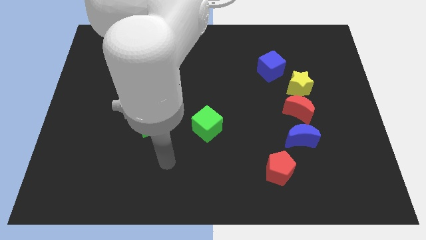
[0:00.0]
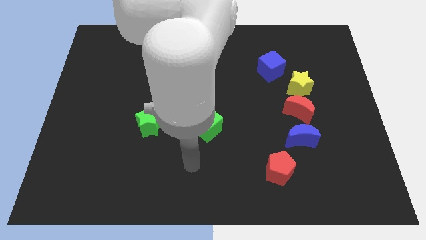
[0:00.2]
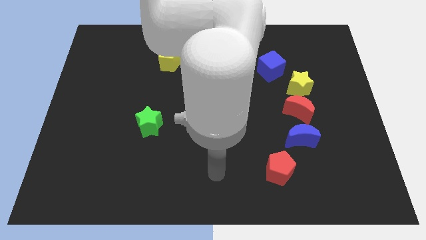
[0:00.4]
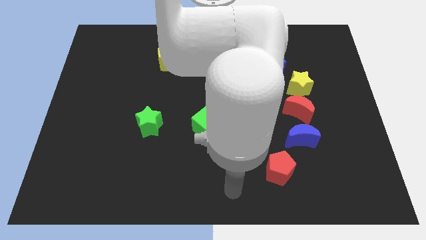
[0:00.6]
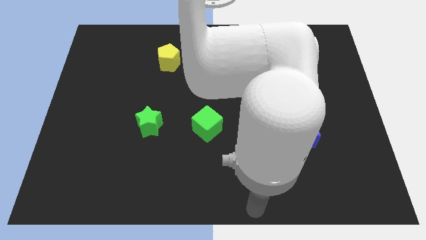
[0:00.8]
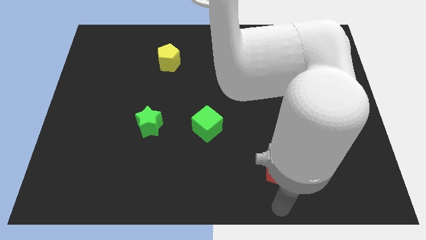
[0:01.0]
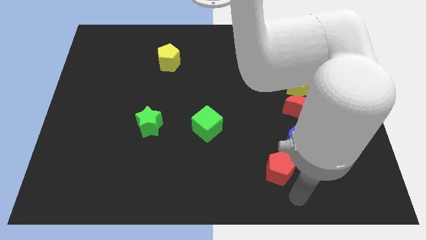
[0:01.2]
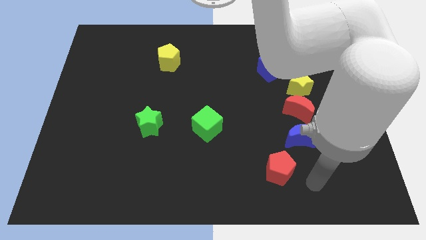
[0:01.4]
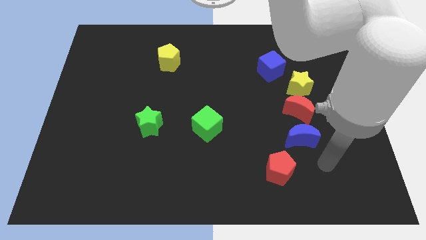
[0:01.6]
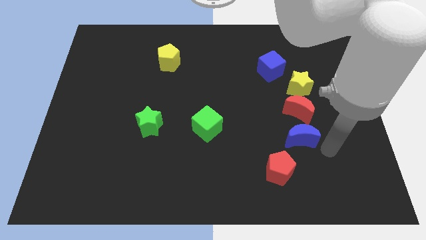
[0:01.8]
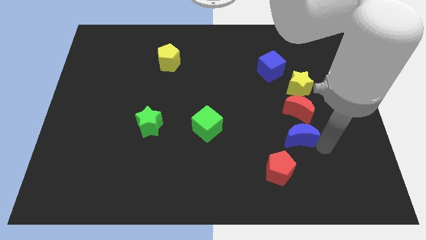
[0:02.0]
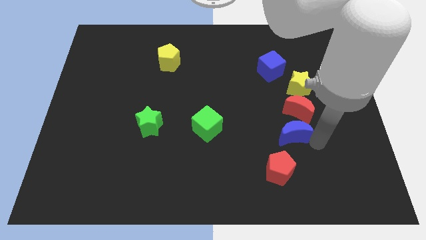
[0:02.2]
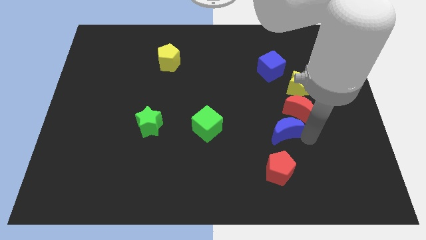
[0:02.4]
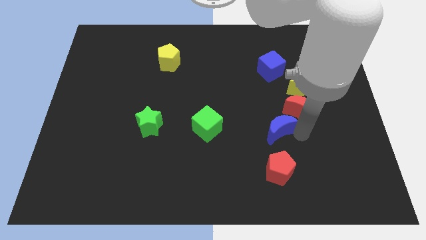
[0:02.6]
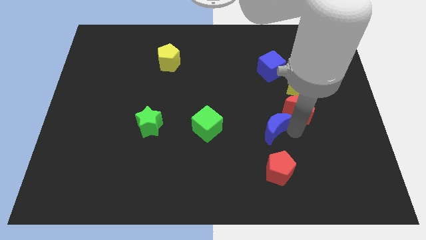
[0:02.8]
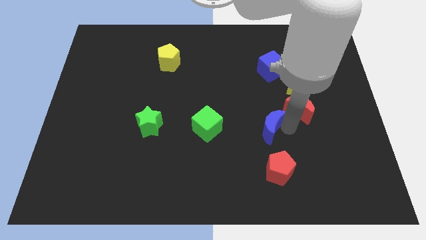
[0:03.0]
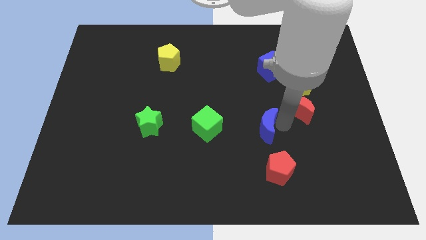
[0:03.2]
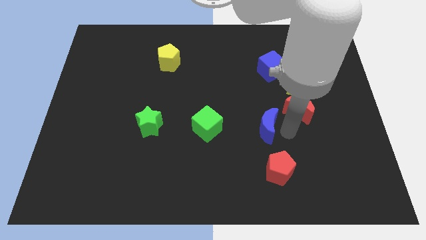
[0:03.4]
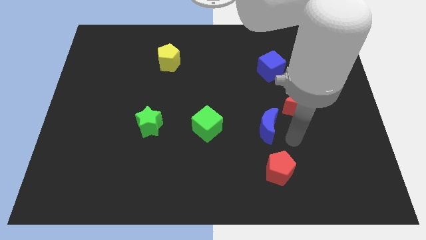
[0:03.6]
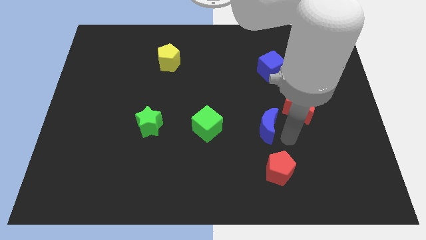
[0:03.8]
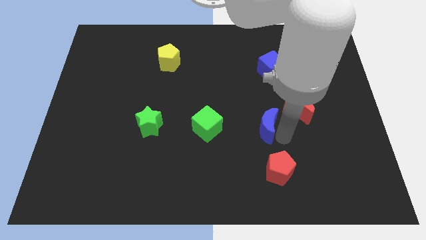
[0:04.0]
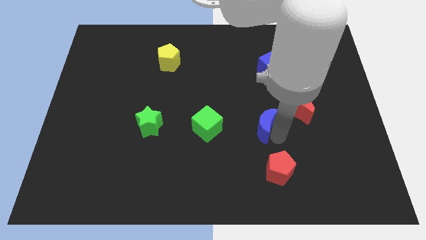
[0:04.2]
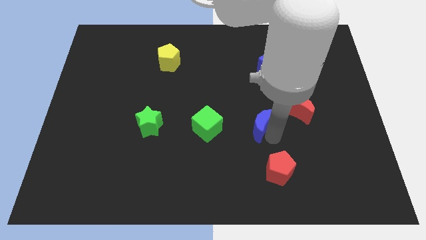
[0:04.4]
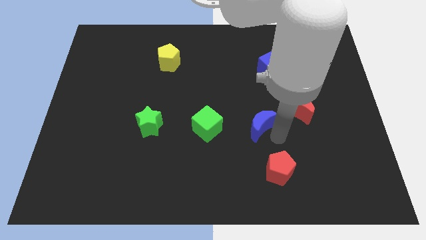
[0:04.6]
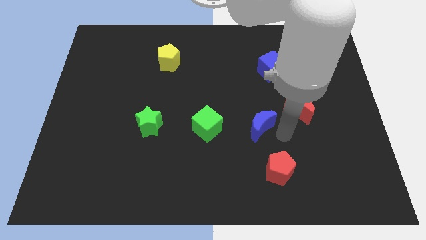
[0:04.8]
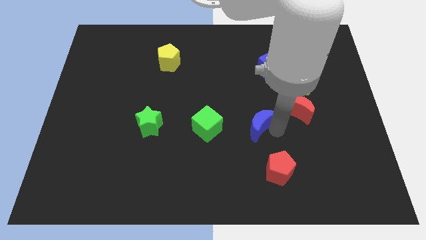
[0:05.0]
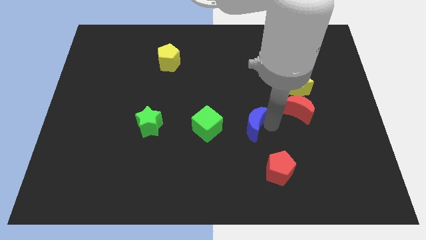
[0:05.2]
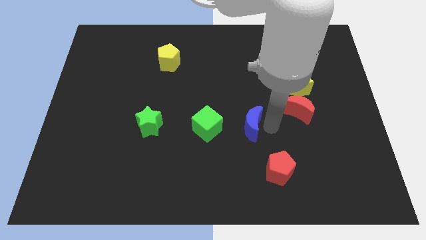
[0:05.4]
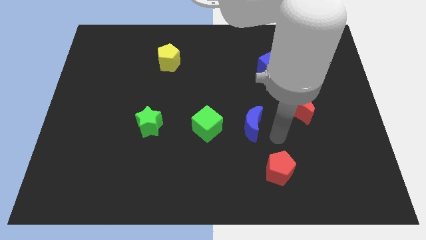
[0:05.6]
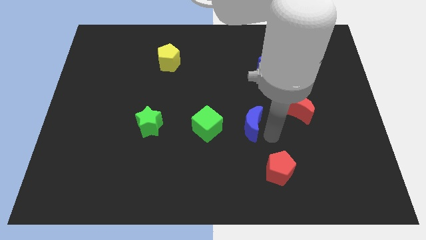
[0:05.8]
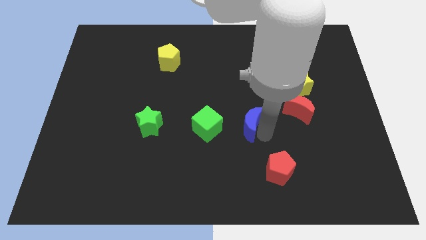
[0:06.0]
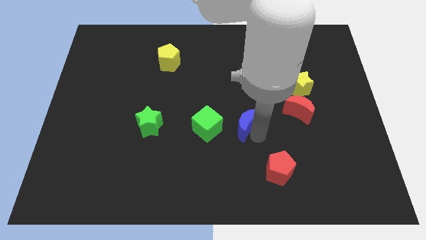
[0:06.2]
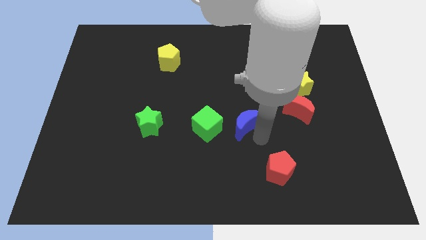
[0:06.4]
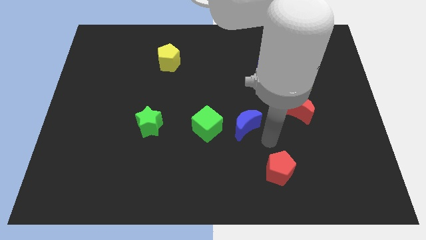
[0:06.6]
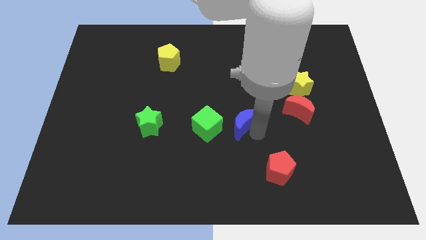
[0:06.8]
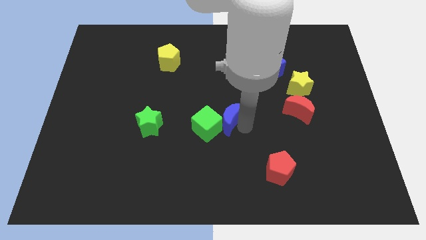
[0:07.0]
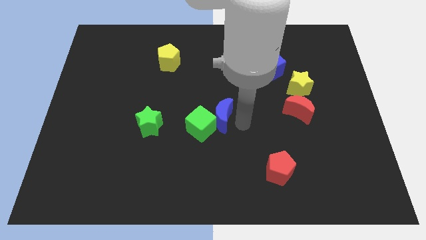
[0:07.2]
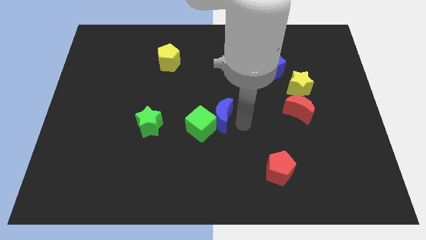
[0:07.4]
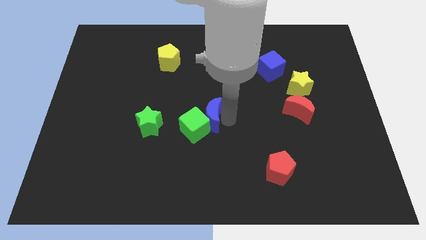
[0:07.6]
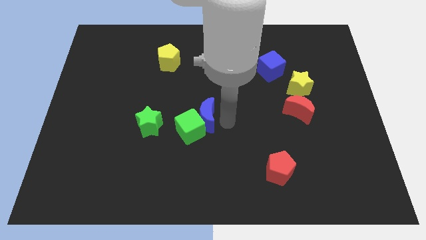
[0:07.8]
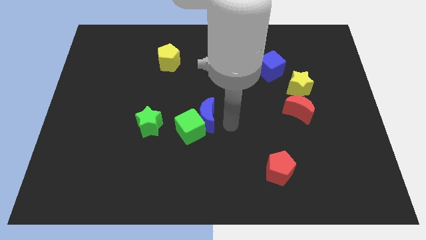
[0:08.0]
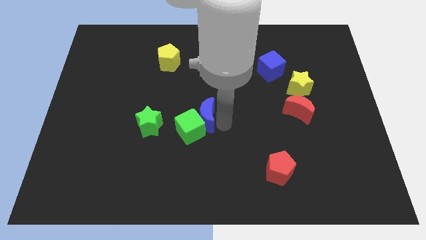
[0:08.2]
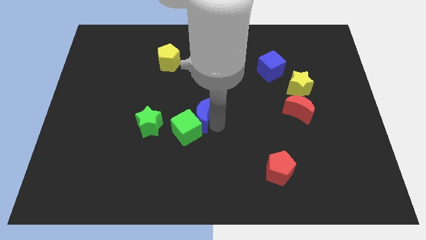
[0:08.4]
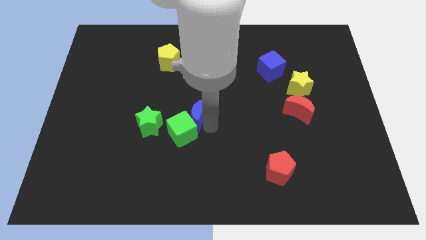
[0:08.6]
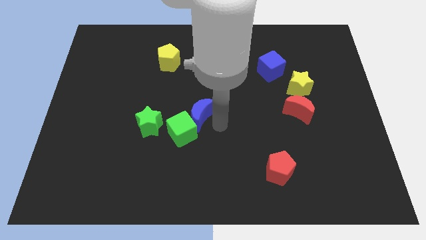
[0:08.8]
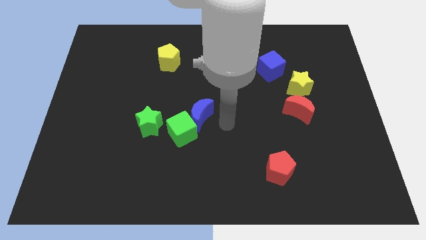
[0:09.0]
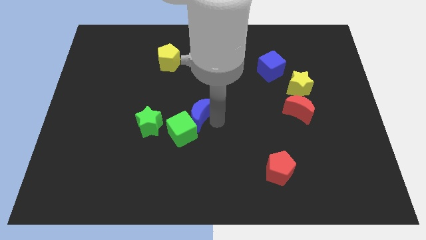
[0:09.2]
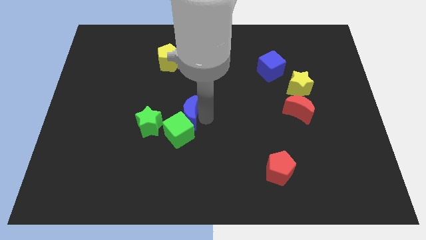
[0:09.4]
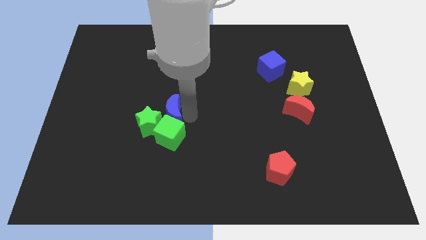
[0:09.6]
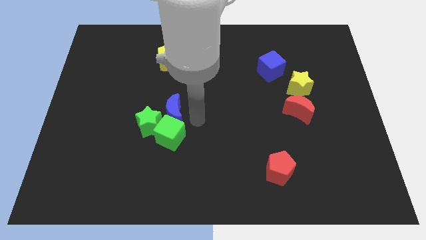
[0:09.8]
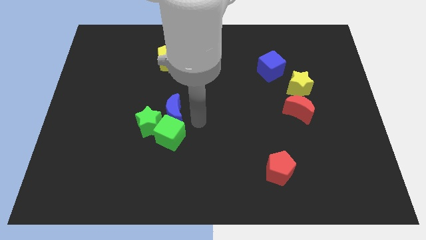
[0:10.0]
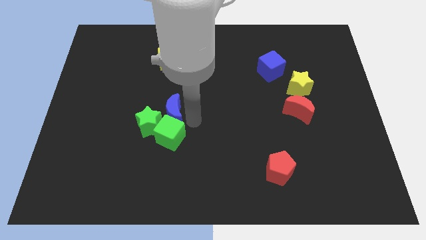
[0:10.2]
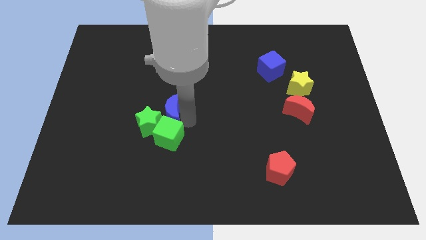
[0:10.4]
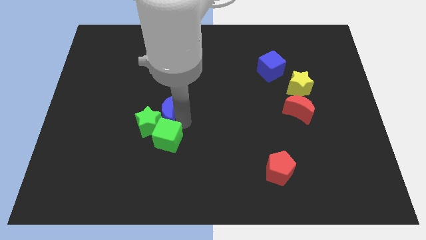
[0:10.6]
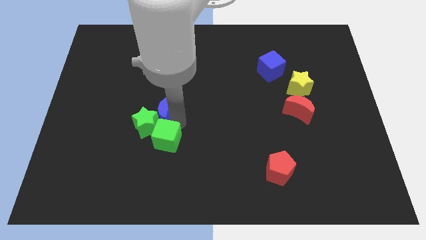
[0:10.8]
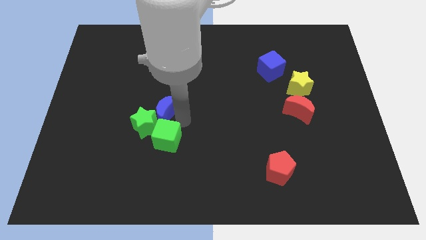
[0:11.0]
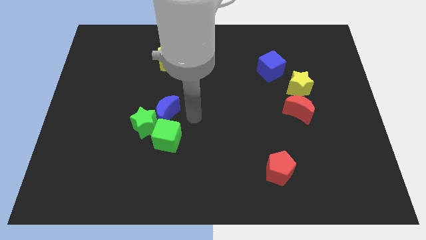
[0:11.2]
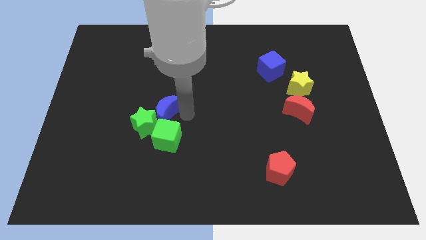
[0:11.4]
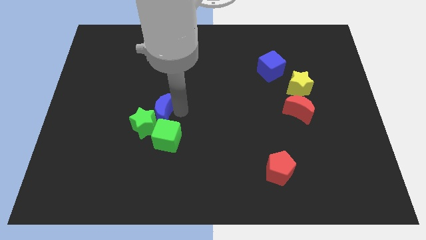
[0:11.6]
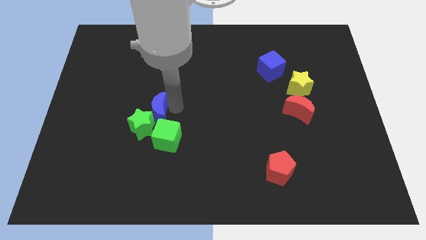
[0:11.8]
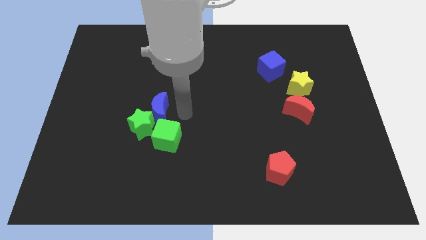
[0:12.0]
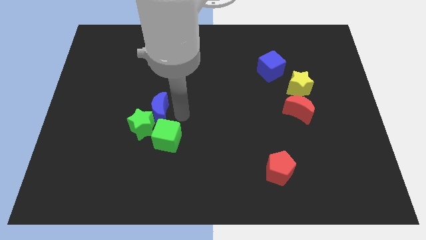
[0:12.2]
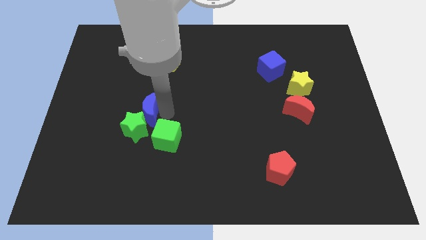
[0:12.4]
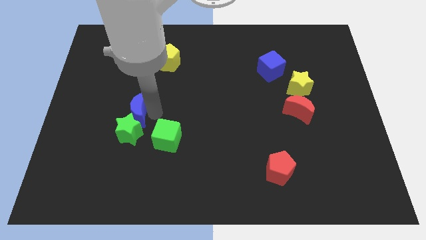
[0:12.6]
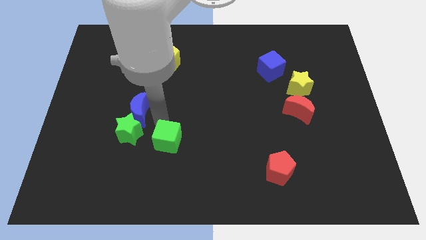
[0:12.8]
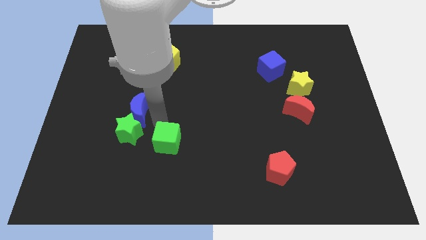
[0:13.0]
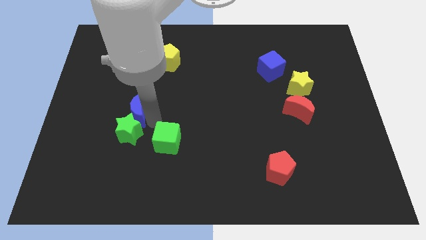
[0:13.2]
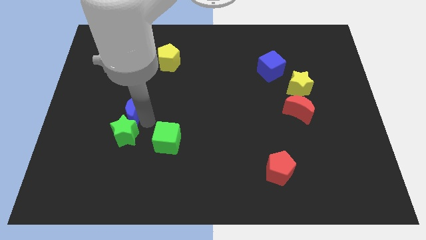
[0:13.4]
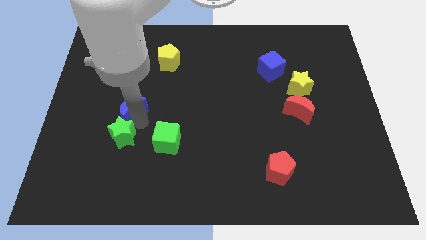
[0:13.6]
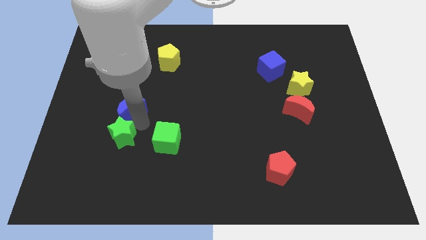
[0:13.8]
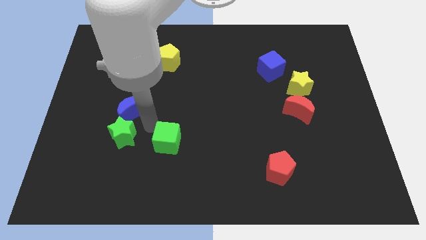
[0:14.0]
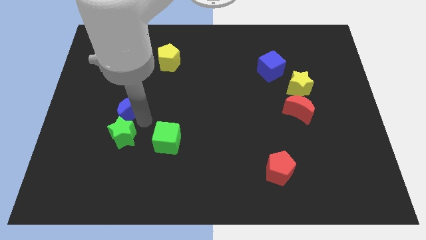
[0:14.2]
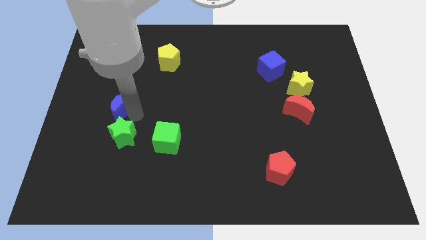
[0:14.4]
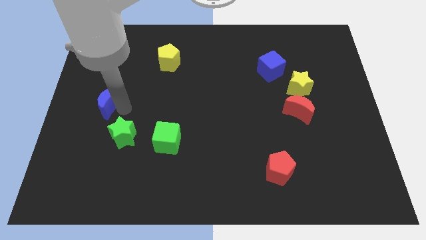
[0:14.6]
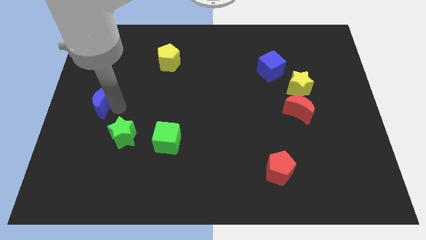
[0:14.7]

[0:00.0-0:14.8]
put the blue moon to the left side of the board
